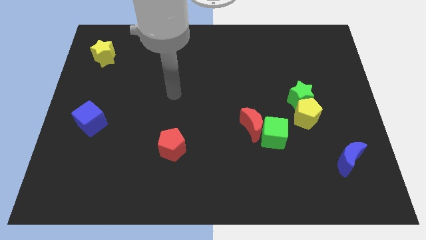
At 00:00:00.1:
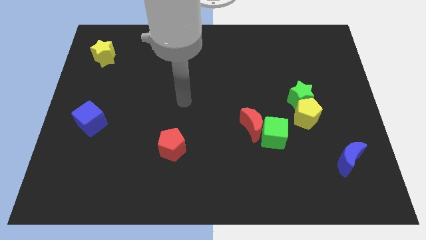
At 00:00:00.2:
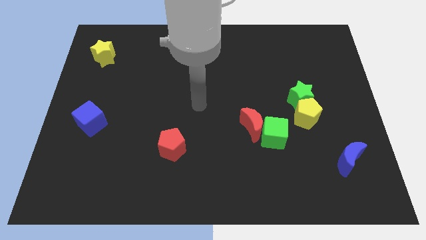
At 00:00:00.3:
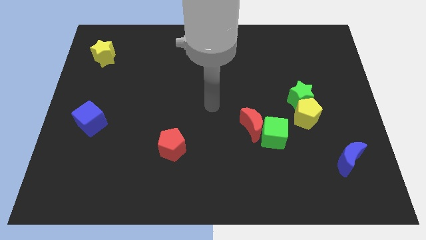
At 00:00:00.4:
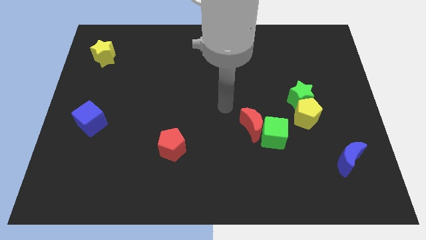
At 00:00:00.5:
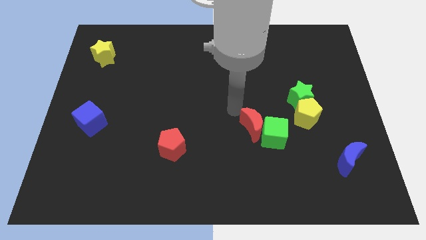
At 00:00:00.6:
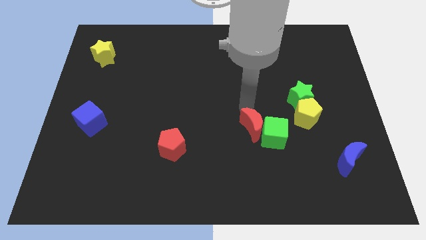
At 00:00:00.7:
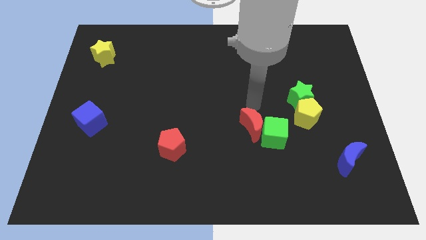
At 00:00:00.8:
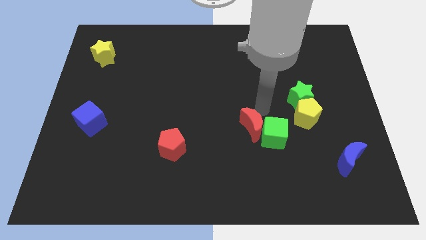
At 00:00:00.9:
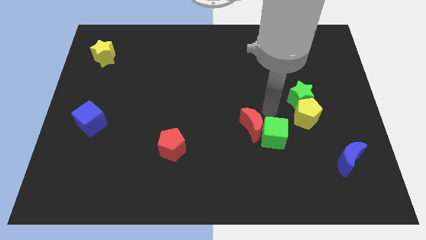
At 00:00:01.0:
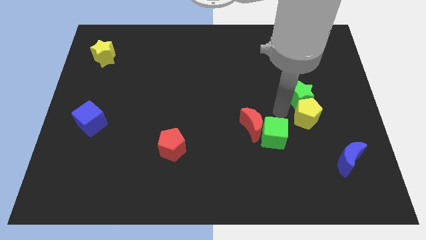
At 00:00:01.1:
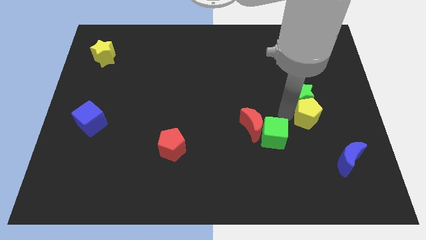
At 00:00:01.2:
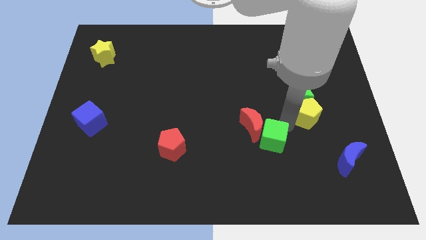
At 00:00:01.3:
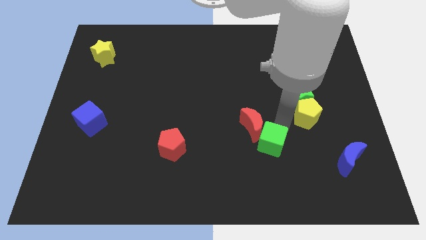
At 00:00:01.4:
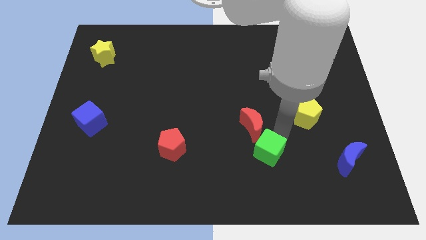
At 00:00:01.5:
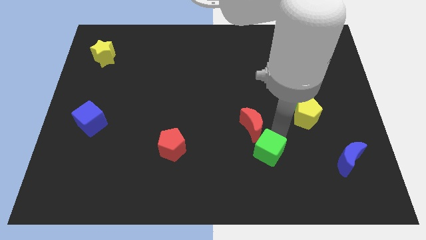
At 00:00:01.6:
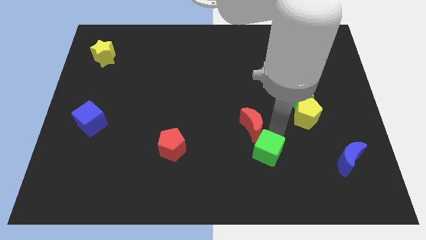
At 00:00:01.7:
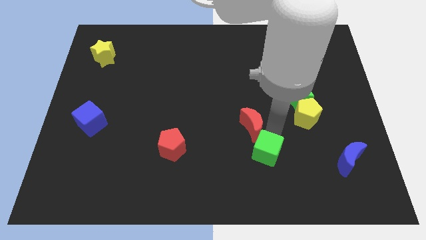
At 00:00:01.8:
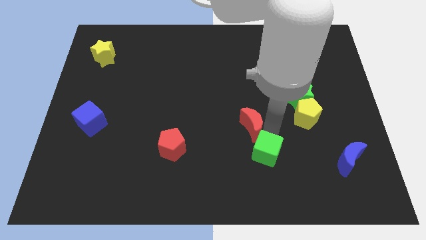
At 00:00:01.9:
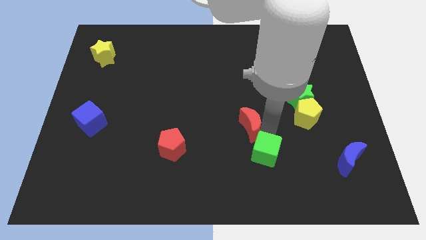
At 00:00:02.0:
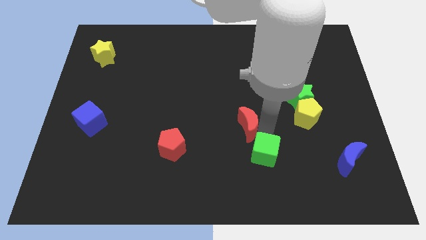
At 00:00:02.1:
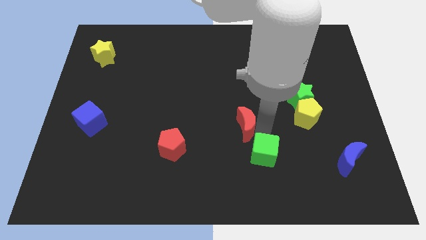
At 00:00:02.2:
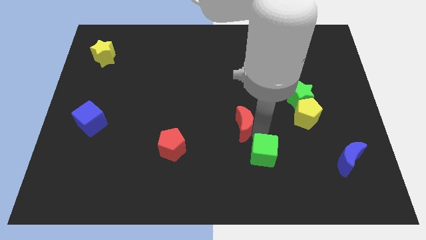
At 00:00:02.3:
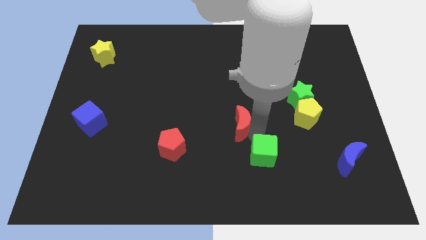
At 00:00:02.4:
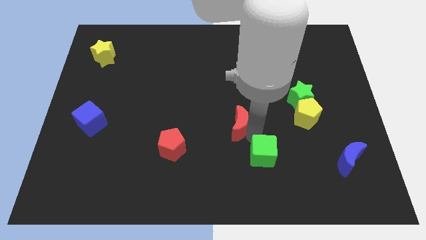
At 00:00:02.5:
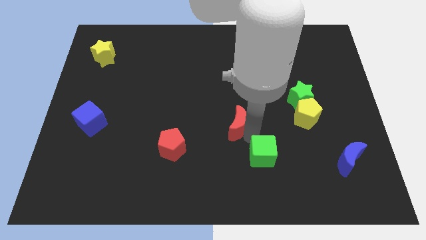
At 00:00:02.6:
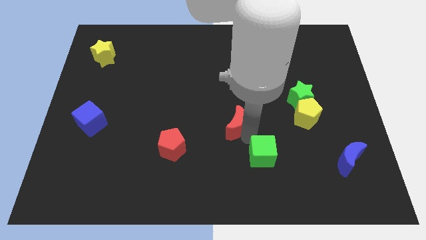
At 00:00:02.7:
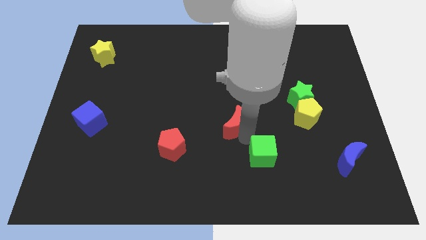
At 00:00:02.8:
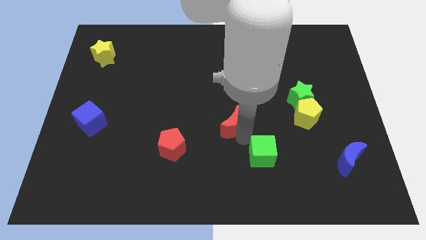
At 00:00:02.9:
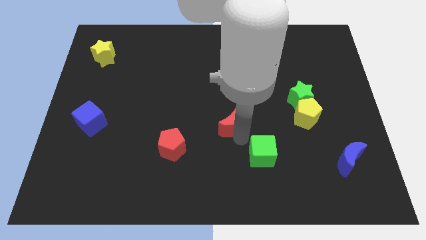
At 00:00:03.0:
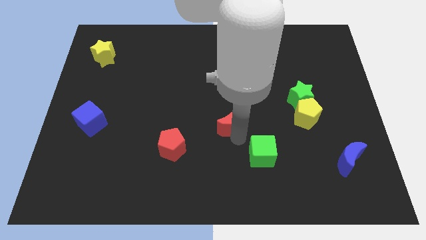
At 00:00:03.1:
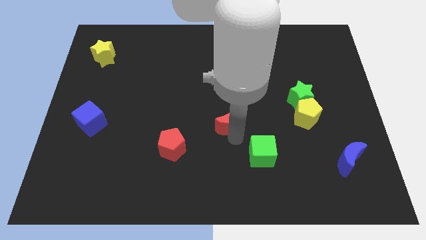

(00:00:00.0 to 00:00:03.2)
move the red moon away from the green cube

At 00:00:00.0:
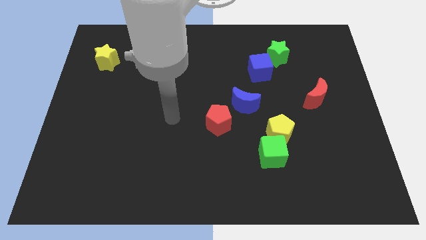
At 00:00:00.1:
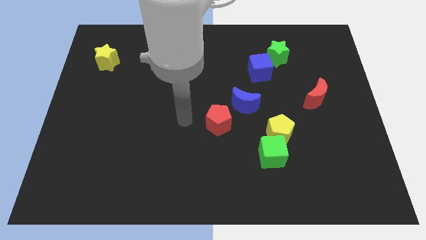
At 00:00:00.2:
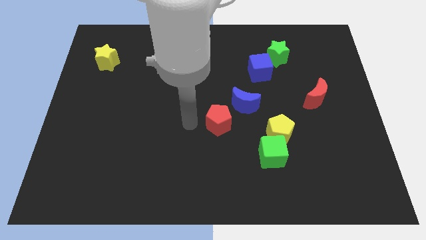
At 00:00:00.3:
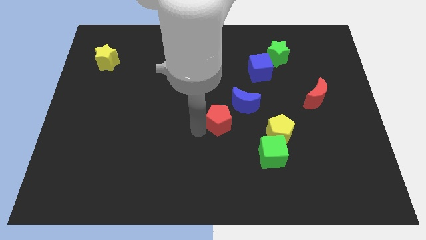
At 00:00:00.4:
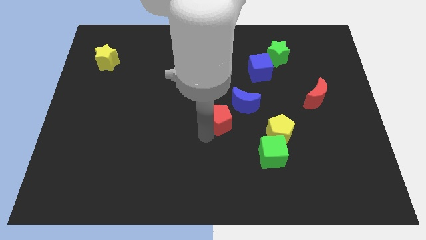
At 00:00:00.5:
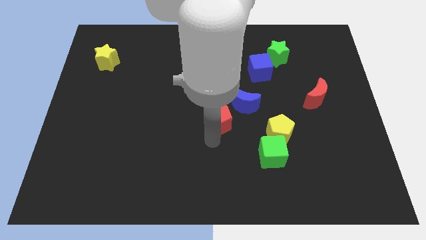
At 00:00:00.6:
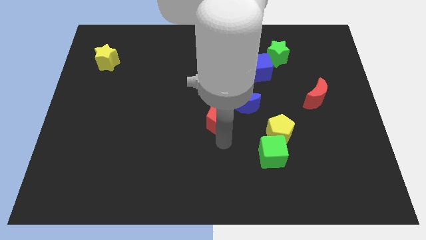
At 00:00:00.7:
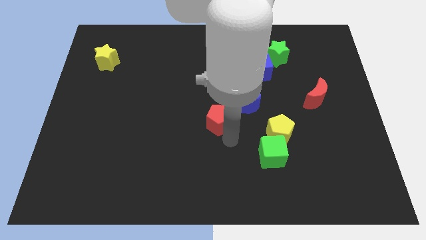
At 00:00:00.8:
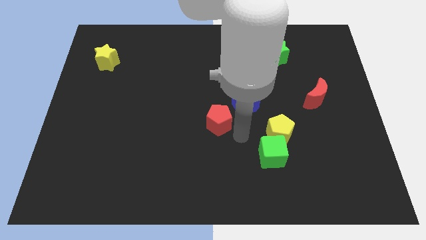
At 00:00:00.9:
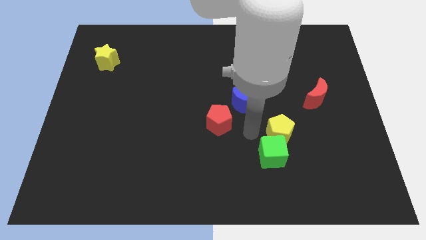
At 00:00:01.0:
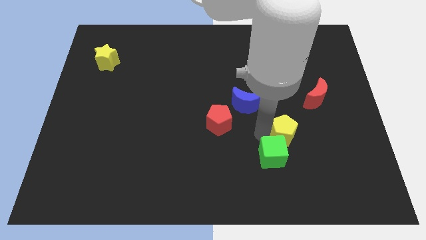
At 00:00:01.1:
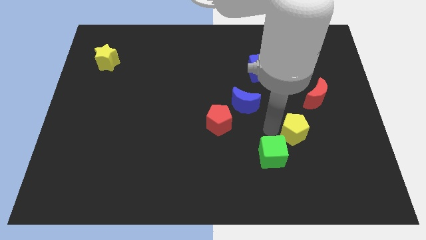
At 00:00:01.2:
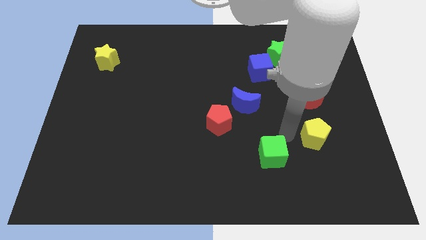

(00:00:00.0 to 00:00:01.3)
move the green cube away from the yellow pentagon

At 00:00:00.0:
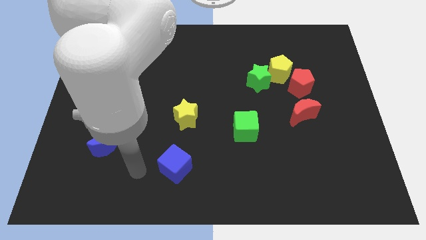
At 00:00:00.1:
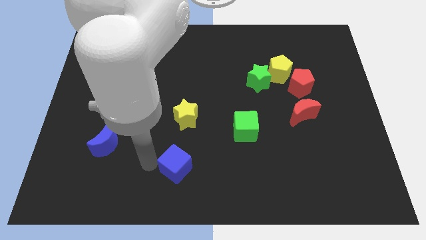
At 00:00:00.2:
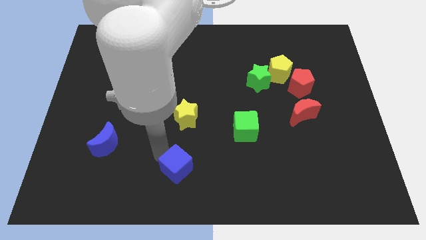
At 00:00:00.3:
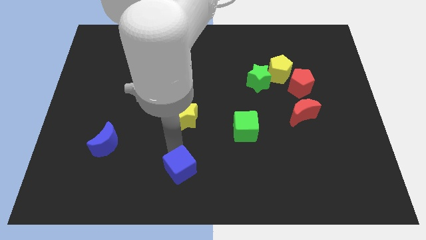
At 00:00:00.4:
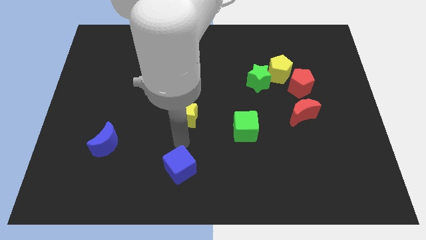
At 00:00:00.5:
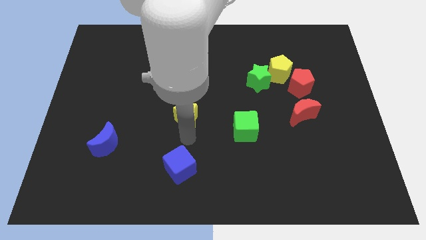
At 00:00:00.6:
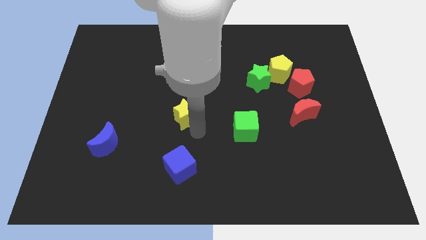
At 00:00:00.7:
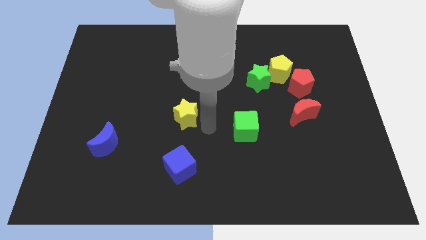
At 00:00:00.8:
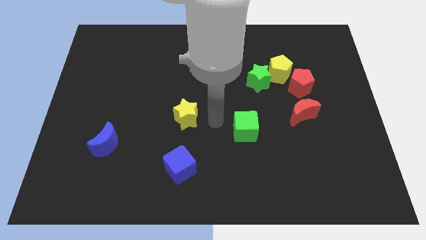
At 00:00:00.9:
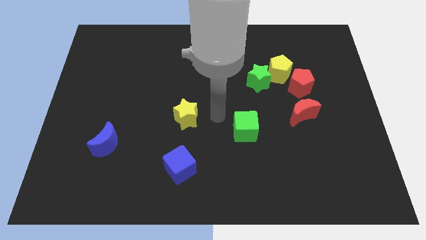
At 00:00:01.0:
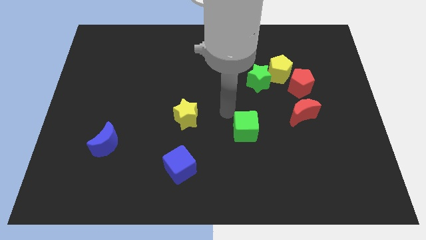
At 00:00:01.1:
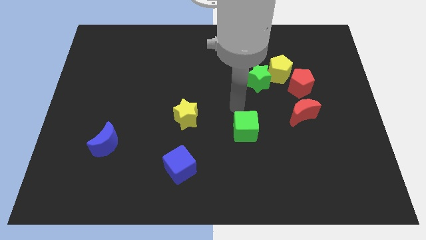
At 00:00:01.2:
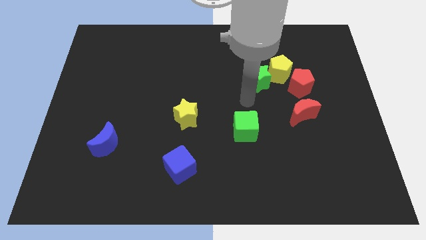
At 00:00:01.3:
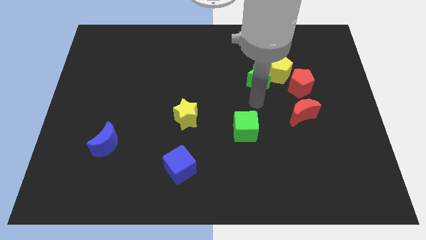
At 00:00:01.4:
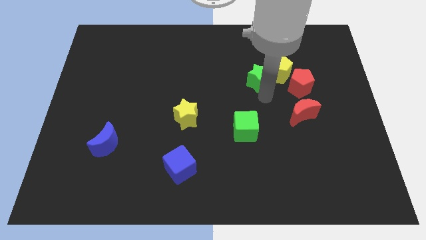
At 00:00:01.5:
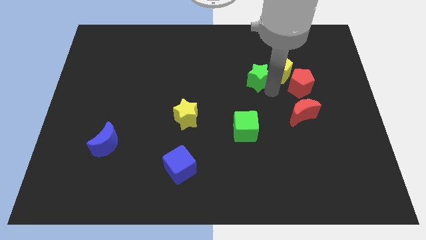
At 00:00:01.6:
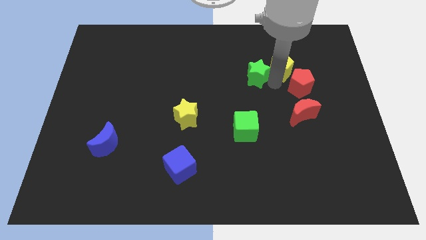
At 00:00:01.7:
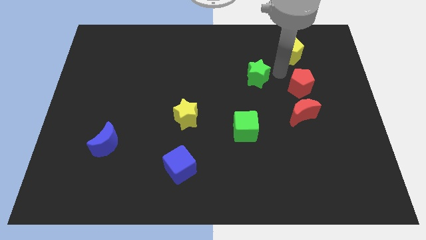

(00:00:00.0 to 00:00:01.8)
move the green star away from the yellow pentagon

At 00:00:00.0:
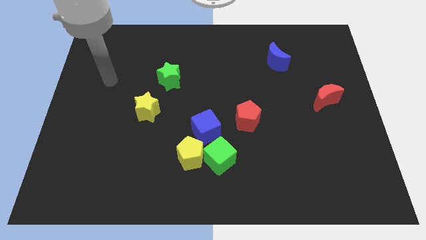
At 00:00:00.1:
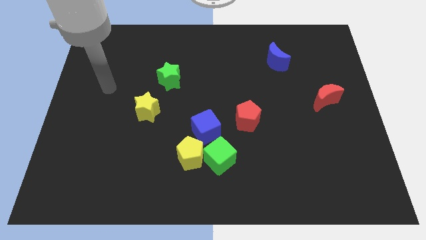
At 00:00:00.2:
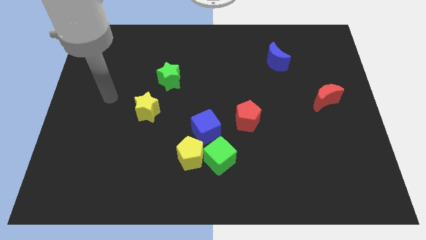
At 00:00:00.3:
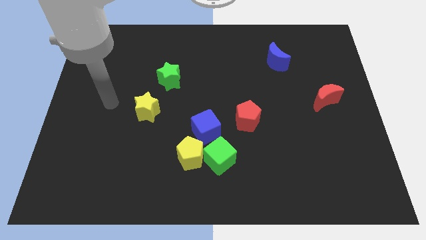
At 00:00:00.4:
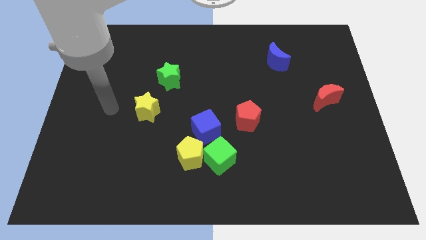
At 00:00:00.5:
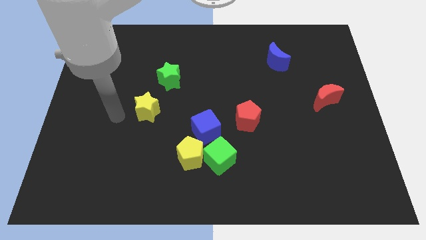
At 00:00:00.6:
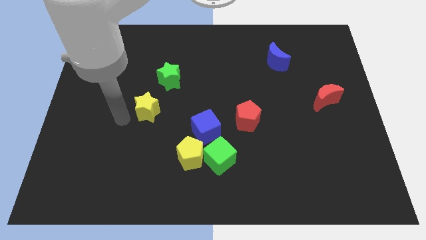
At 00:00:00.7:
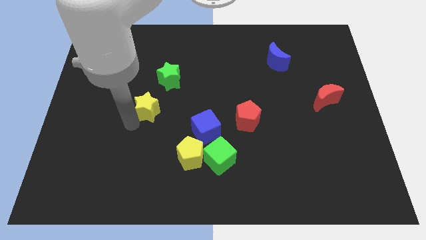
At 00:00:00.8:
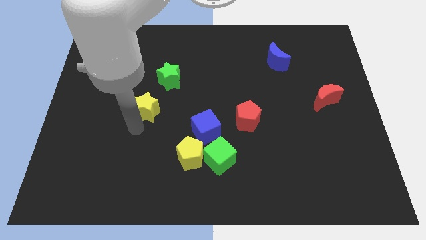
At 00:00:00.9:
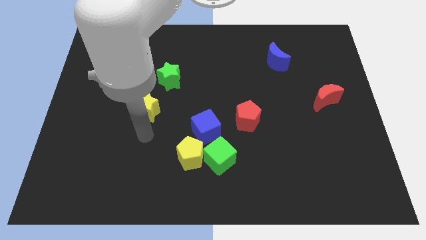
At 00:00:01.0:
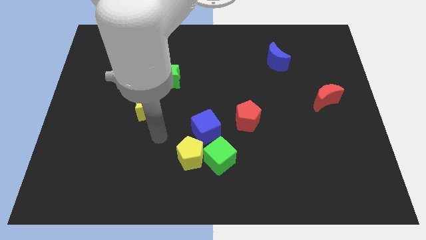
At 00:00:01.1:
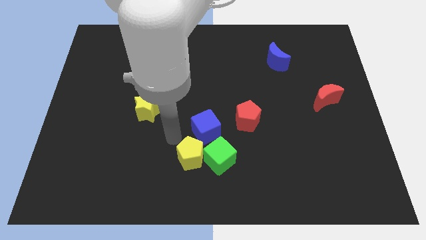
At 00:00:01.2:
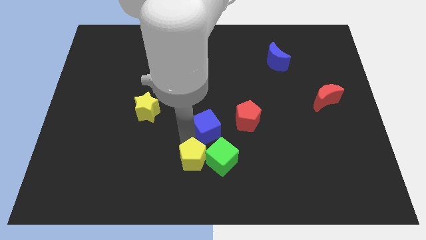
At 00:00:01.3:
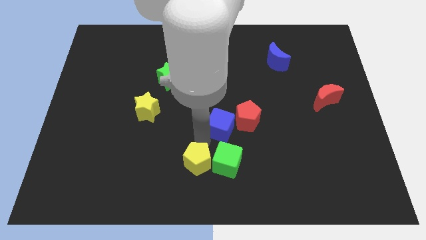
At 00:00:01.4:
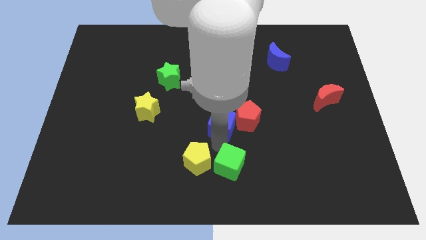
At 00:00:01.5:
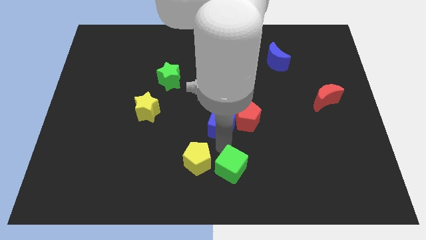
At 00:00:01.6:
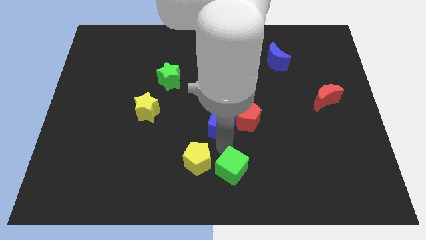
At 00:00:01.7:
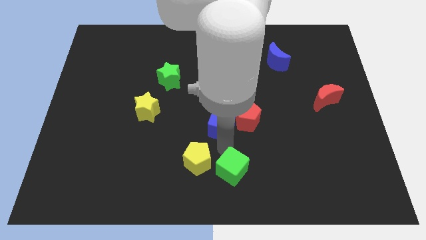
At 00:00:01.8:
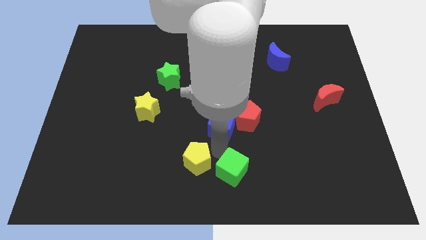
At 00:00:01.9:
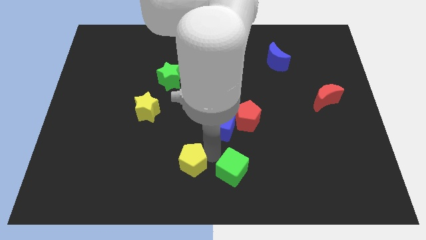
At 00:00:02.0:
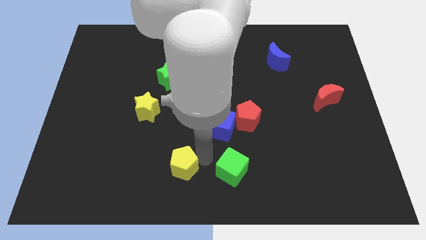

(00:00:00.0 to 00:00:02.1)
separate the yellow pentagon from the green cube and blue cube

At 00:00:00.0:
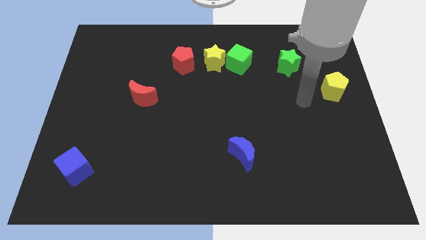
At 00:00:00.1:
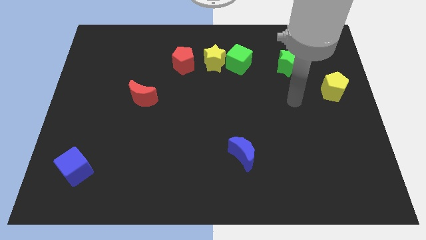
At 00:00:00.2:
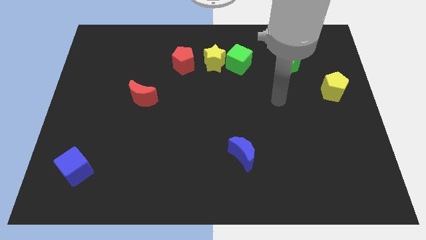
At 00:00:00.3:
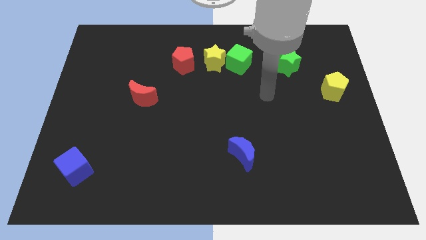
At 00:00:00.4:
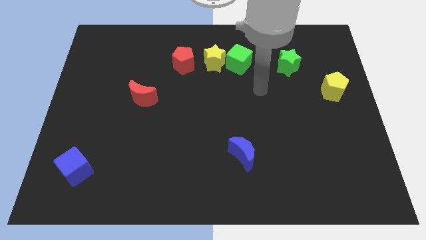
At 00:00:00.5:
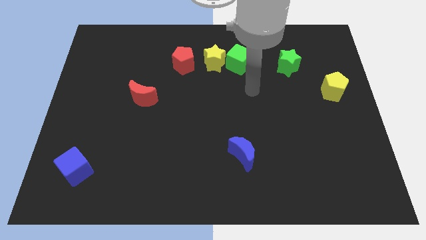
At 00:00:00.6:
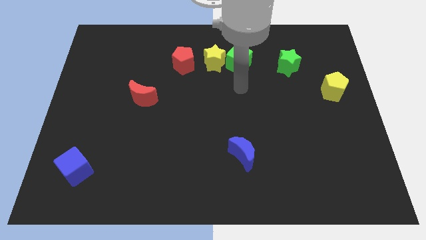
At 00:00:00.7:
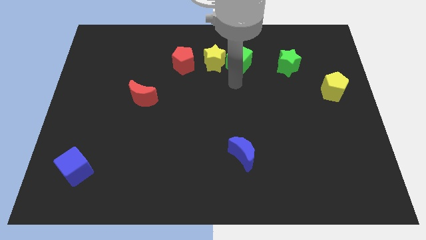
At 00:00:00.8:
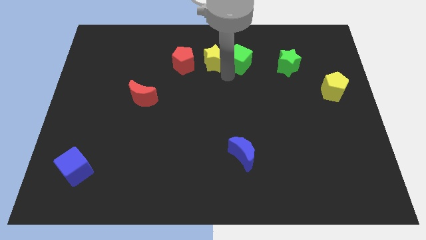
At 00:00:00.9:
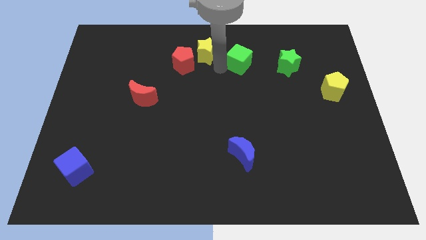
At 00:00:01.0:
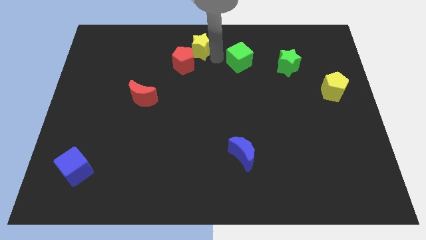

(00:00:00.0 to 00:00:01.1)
separate the green cube from the yellow star
